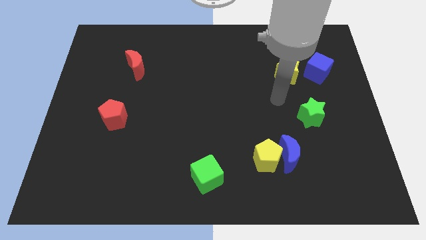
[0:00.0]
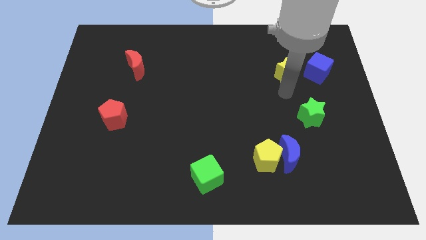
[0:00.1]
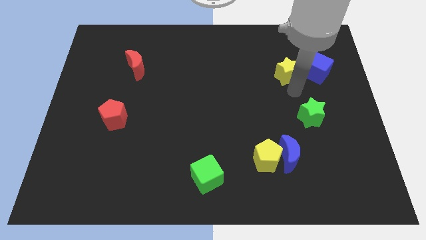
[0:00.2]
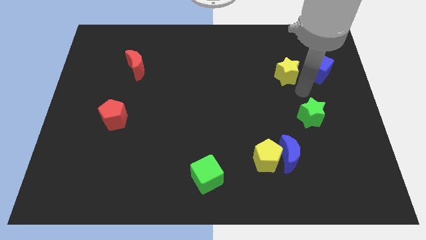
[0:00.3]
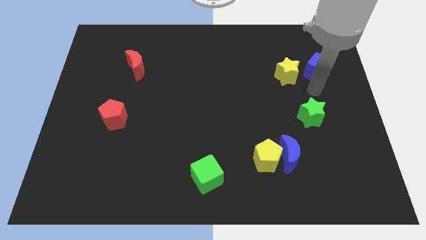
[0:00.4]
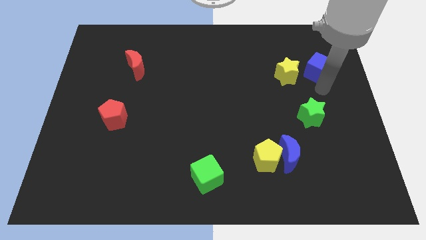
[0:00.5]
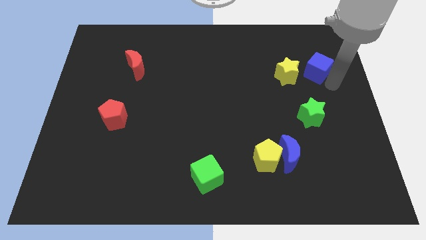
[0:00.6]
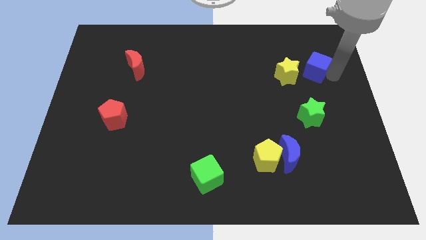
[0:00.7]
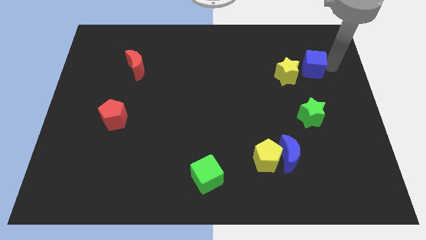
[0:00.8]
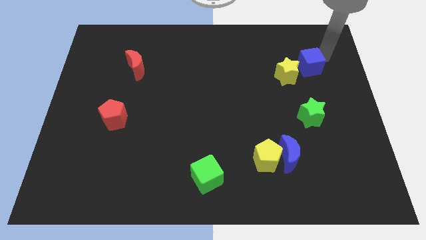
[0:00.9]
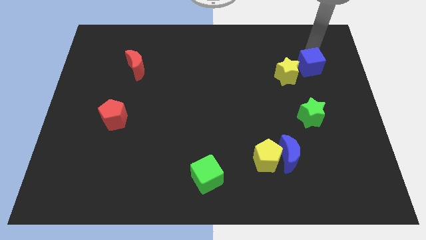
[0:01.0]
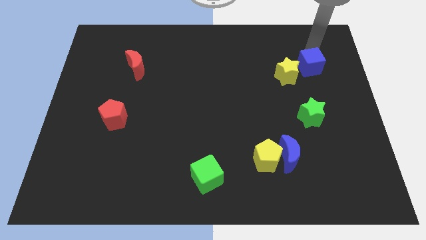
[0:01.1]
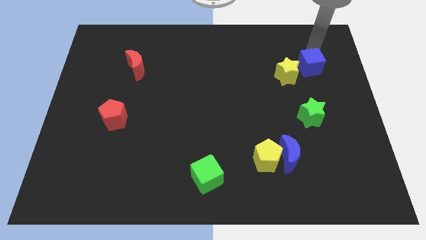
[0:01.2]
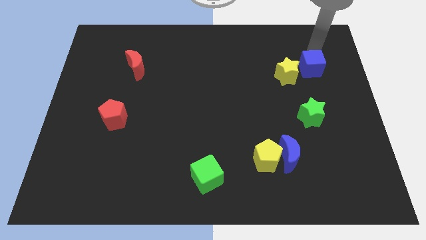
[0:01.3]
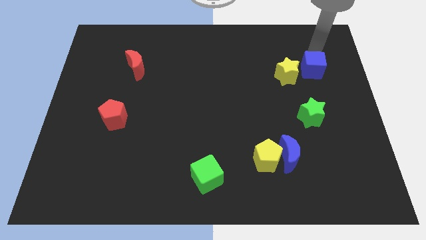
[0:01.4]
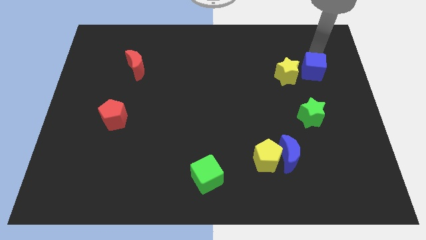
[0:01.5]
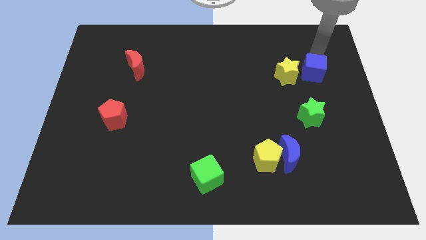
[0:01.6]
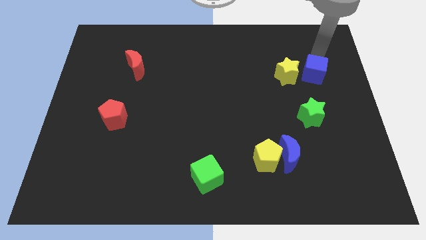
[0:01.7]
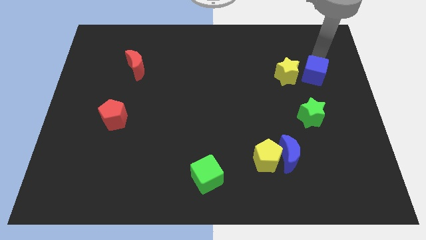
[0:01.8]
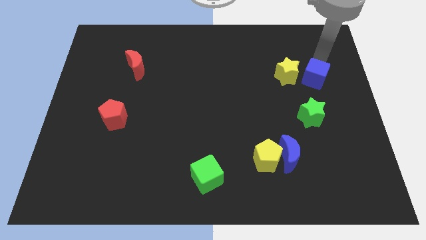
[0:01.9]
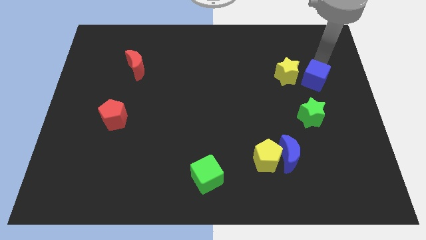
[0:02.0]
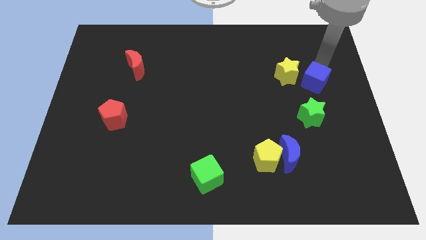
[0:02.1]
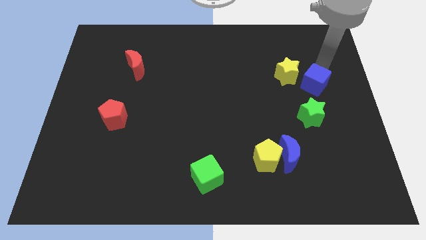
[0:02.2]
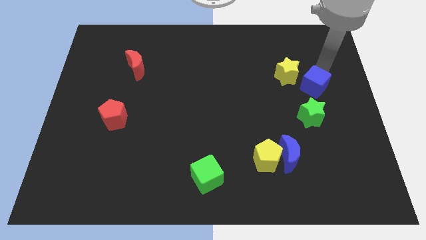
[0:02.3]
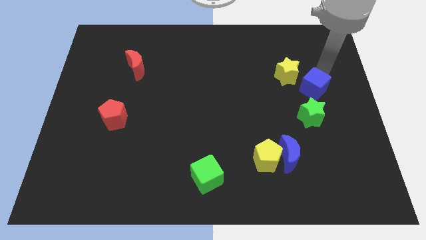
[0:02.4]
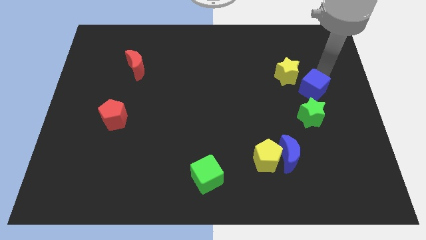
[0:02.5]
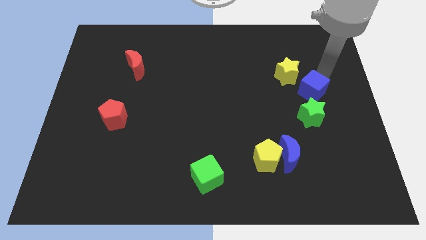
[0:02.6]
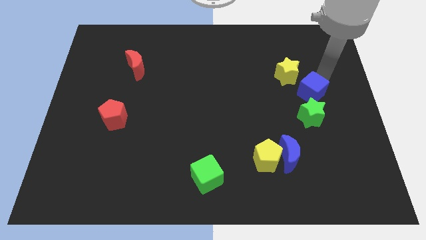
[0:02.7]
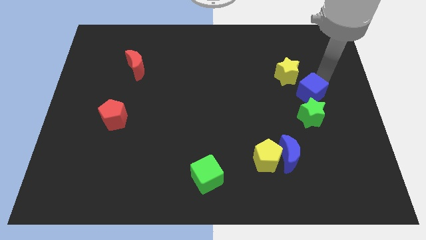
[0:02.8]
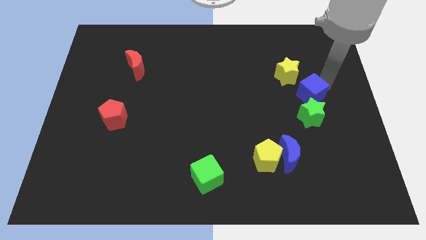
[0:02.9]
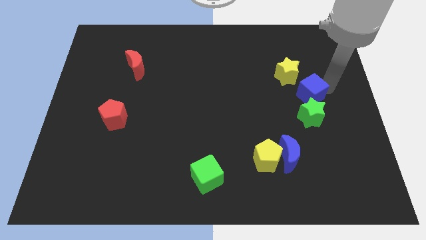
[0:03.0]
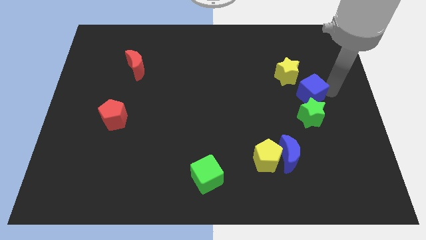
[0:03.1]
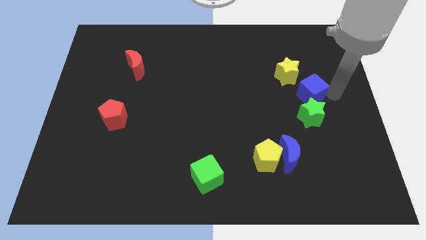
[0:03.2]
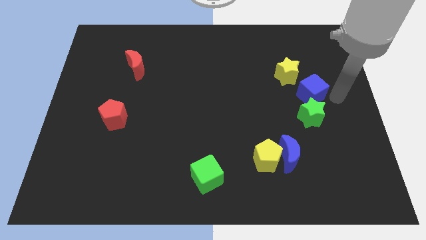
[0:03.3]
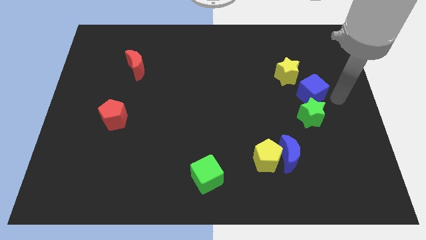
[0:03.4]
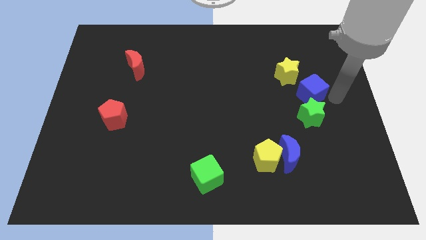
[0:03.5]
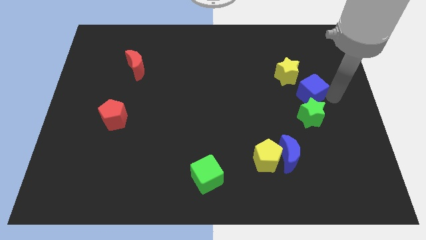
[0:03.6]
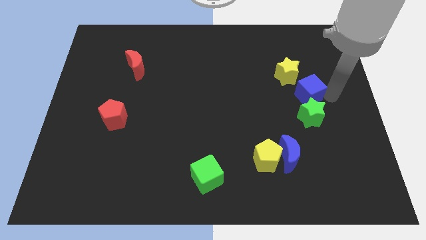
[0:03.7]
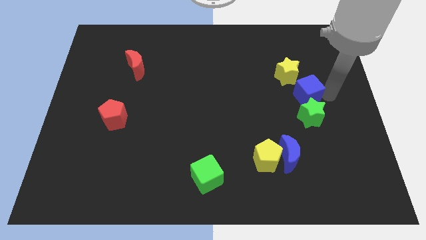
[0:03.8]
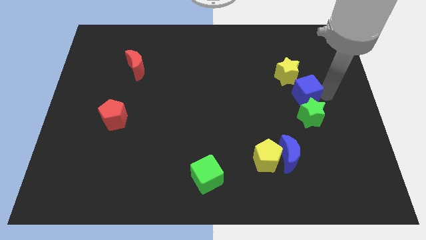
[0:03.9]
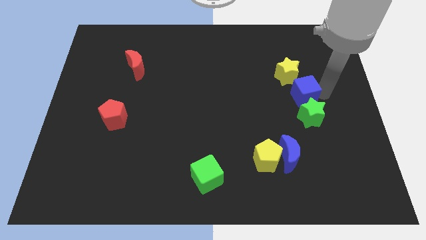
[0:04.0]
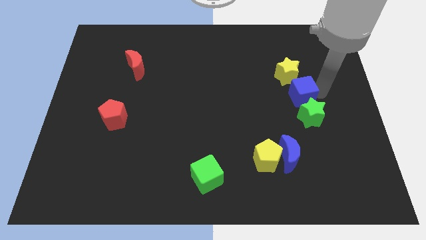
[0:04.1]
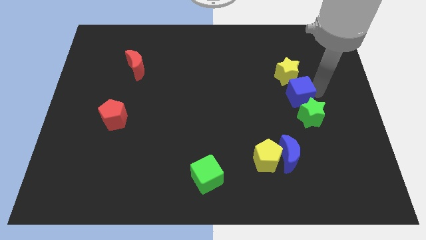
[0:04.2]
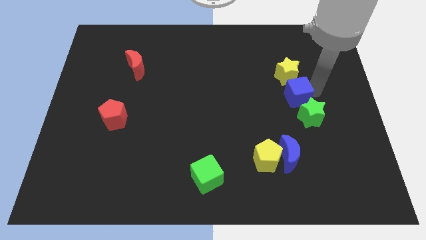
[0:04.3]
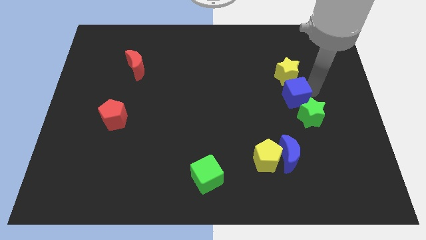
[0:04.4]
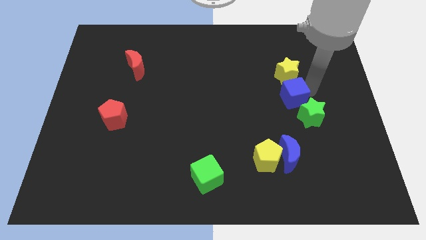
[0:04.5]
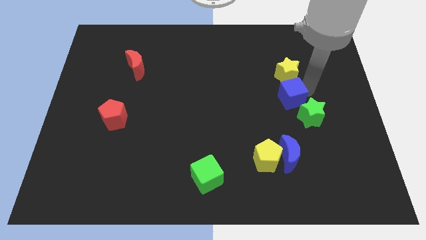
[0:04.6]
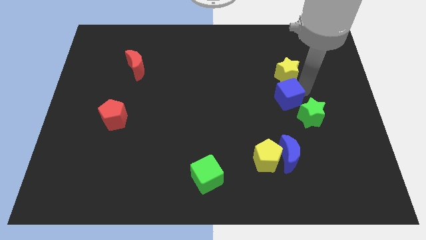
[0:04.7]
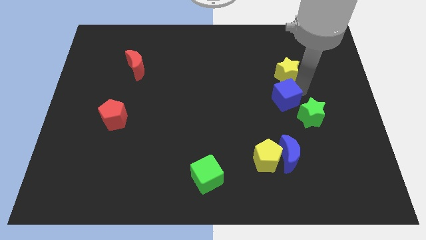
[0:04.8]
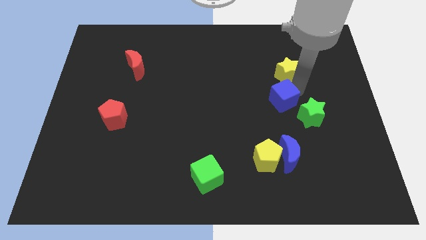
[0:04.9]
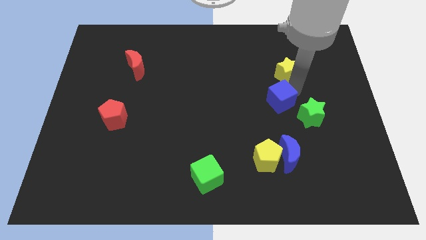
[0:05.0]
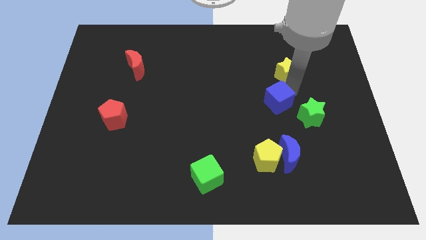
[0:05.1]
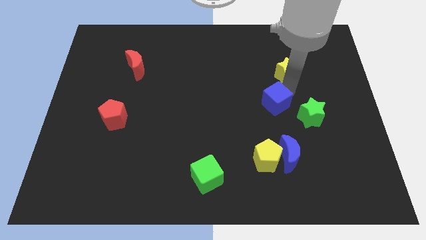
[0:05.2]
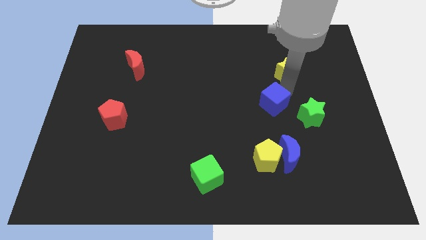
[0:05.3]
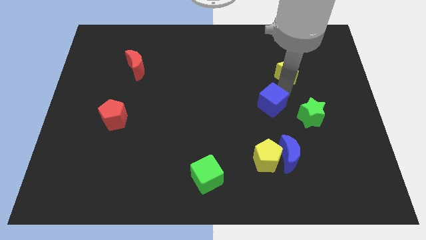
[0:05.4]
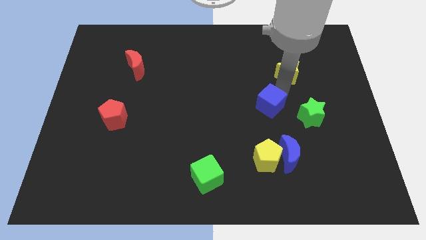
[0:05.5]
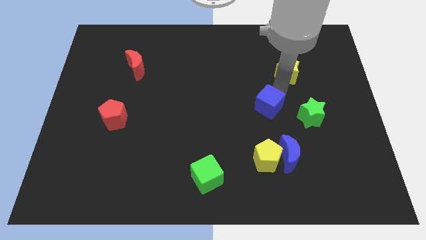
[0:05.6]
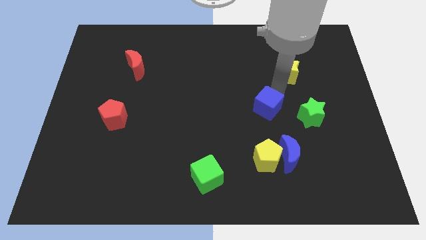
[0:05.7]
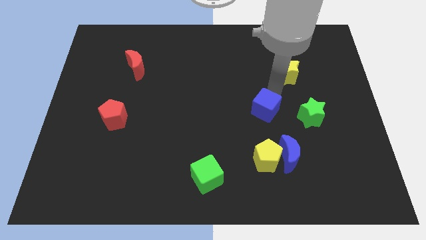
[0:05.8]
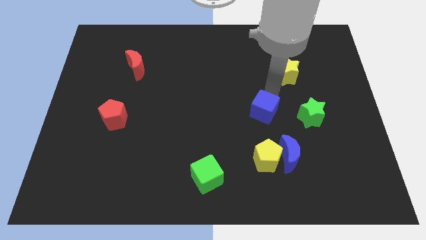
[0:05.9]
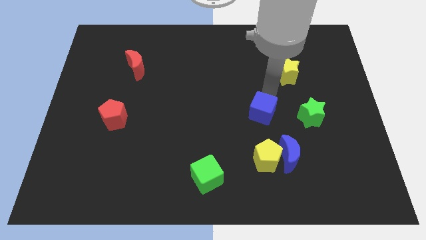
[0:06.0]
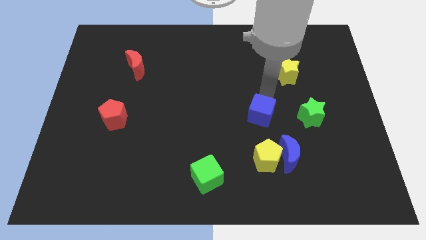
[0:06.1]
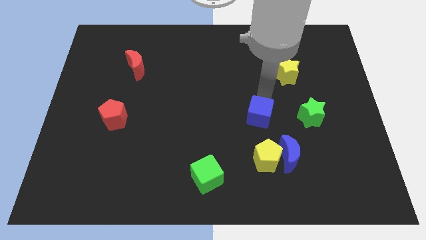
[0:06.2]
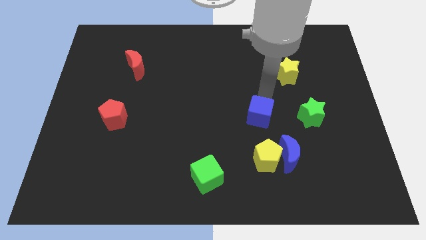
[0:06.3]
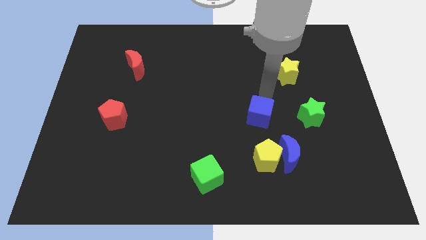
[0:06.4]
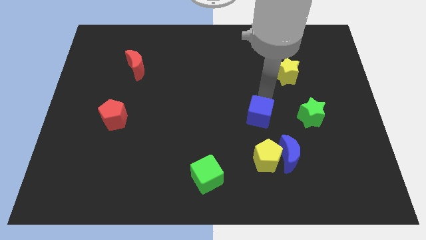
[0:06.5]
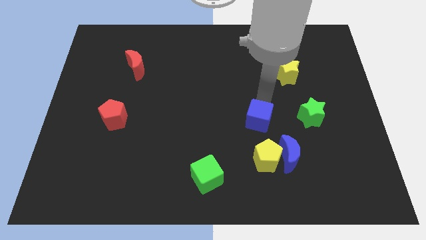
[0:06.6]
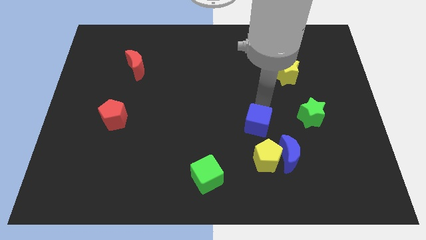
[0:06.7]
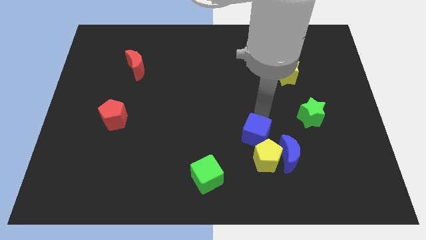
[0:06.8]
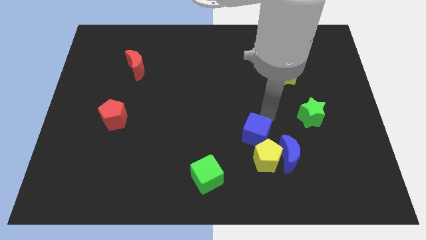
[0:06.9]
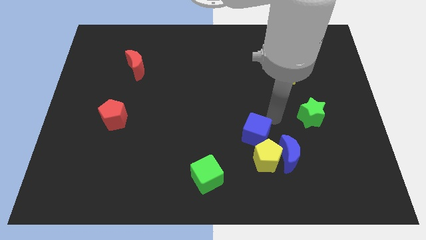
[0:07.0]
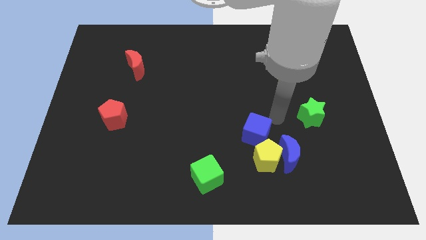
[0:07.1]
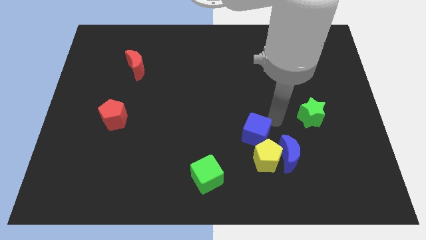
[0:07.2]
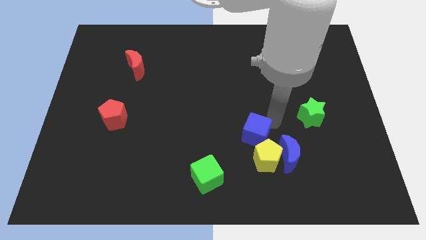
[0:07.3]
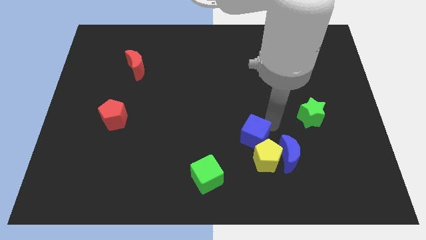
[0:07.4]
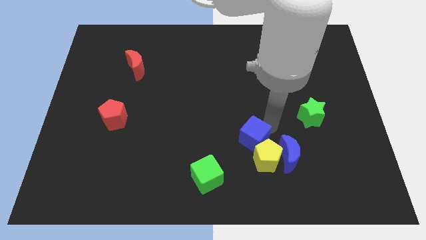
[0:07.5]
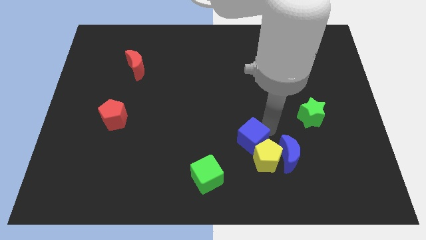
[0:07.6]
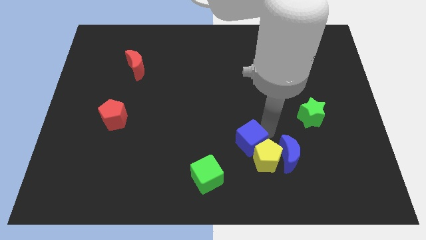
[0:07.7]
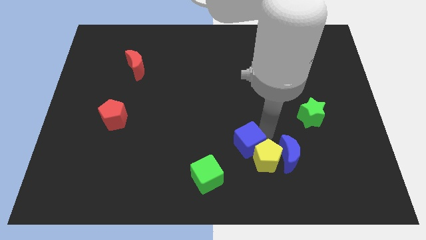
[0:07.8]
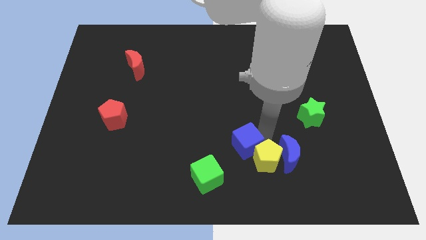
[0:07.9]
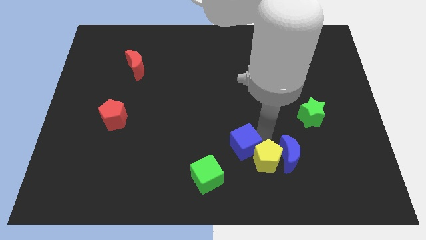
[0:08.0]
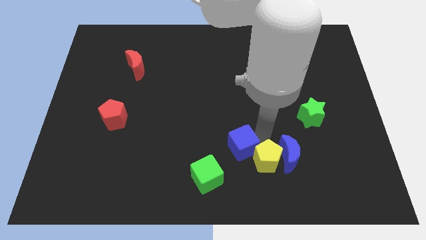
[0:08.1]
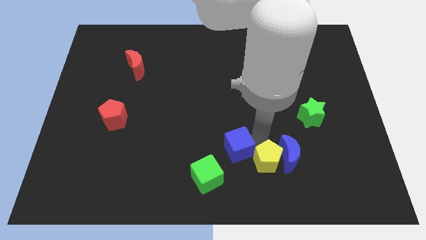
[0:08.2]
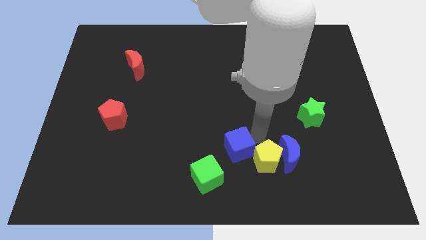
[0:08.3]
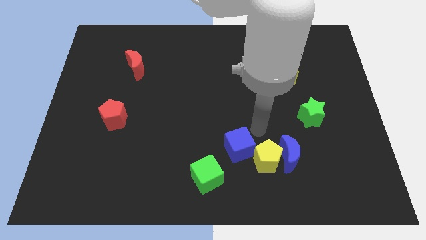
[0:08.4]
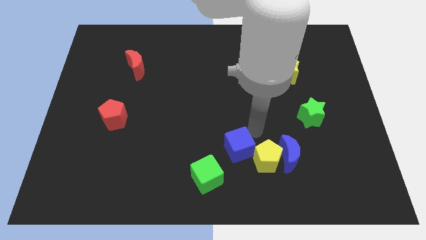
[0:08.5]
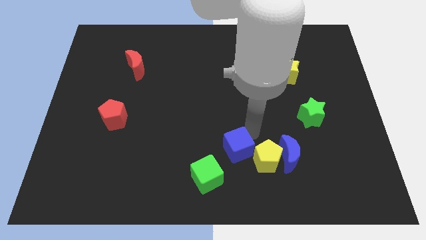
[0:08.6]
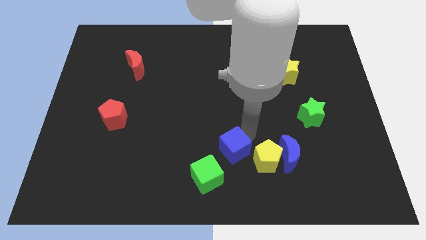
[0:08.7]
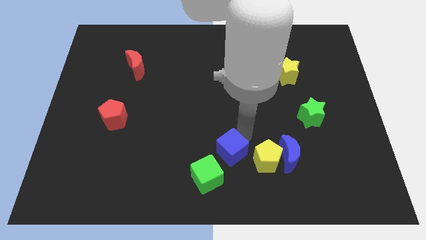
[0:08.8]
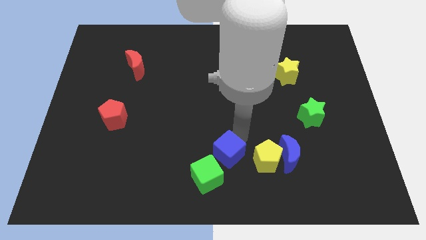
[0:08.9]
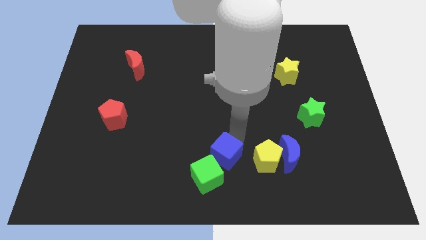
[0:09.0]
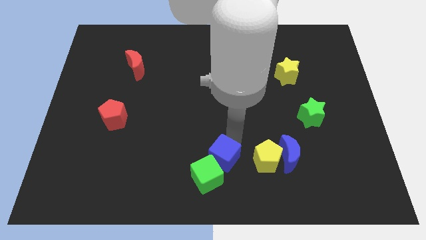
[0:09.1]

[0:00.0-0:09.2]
put the blue cube to the green cube
